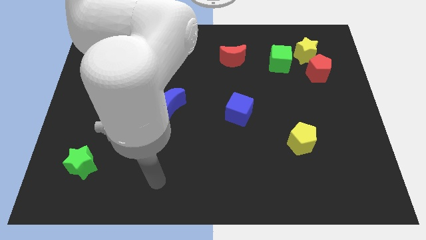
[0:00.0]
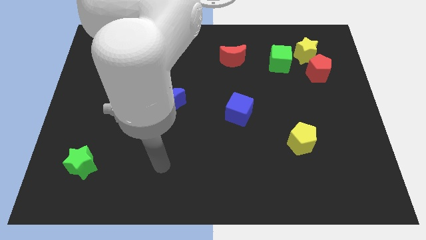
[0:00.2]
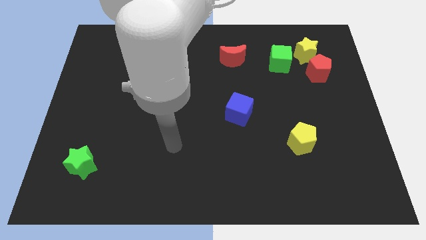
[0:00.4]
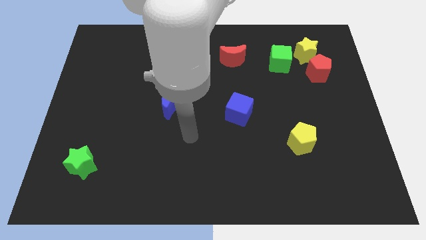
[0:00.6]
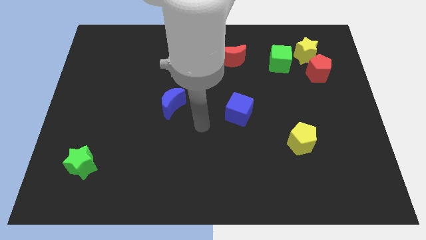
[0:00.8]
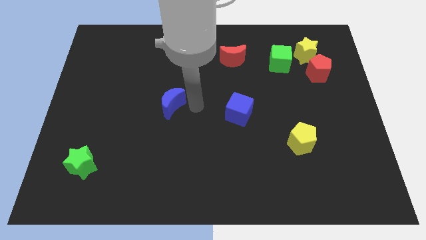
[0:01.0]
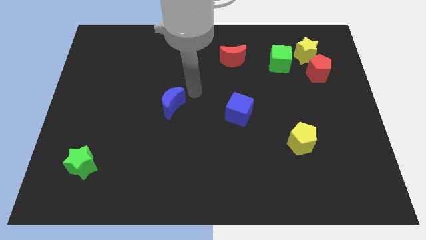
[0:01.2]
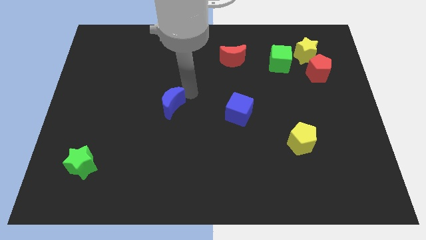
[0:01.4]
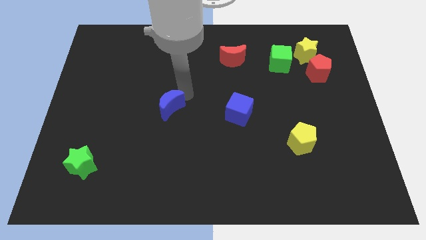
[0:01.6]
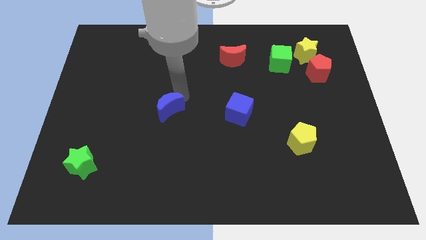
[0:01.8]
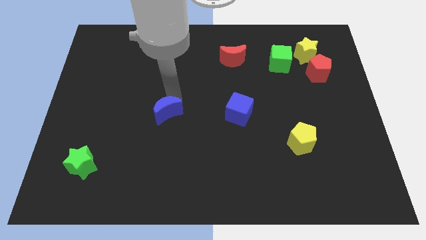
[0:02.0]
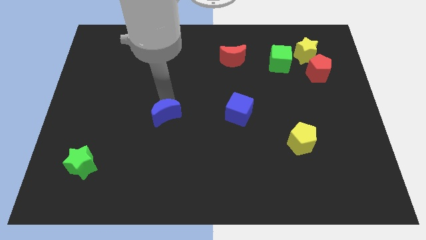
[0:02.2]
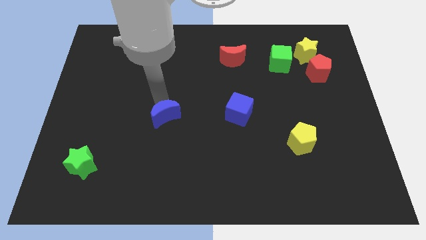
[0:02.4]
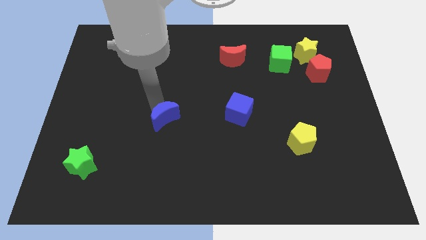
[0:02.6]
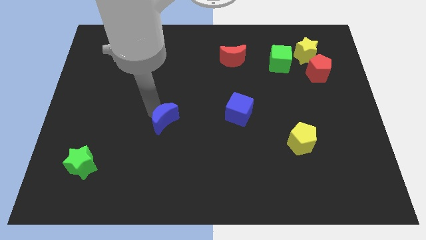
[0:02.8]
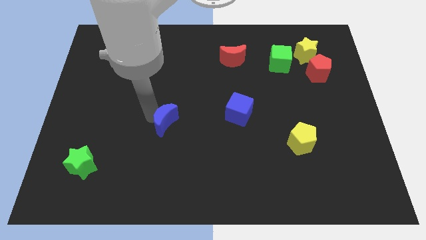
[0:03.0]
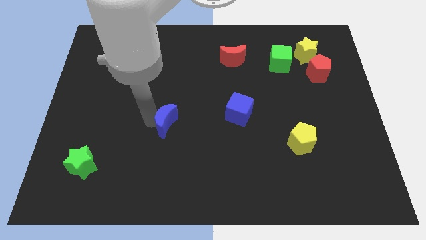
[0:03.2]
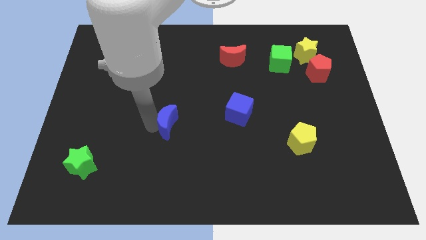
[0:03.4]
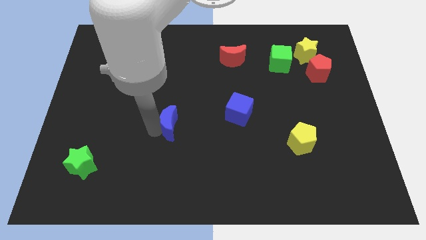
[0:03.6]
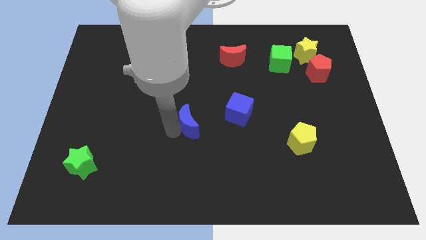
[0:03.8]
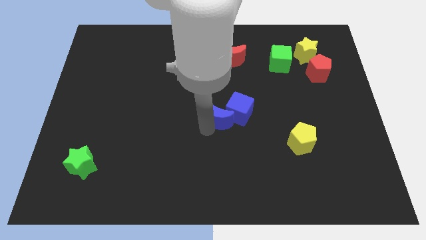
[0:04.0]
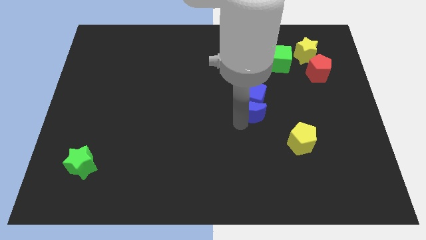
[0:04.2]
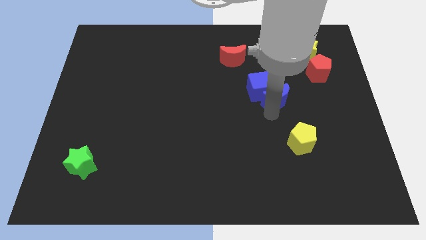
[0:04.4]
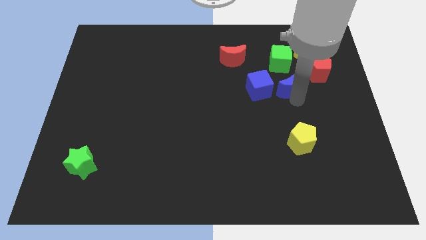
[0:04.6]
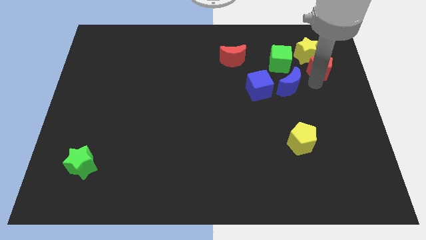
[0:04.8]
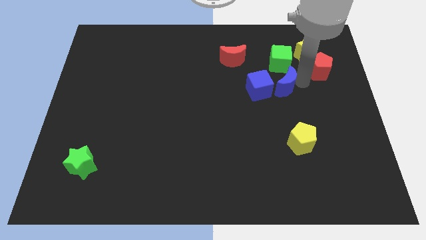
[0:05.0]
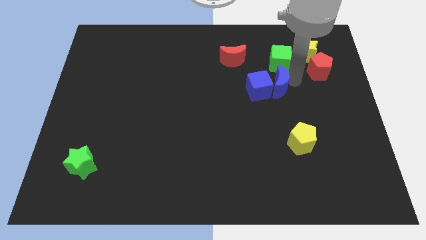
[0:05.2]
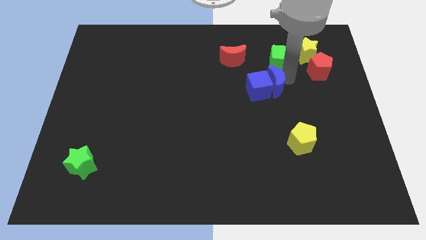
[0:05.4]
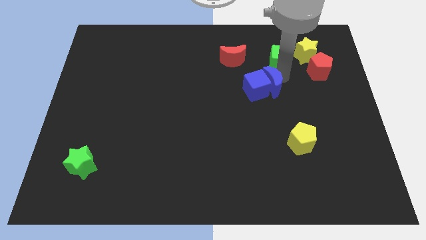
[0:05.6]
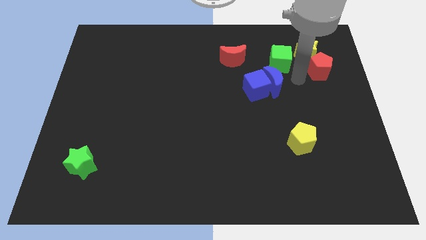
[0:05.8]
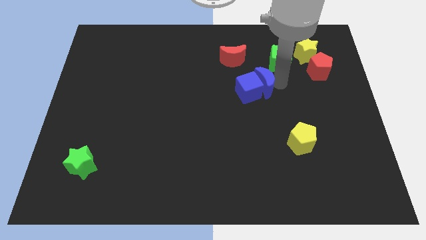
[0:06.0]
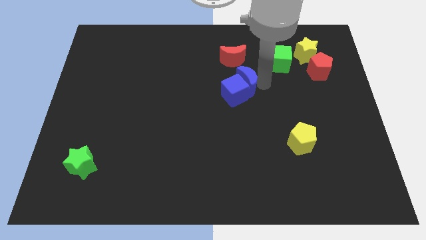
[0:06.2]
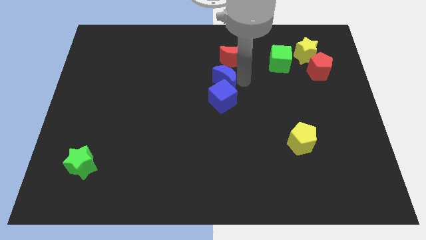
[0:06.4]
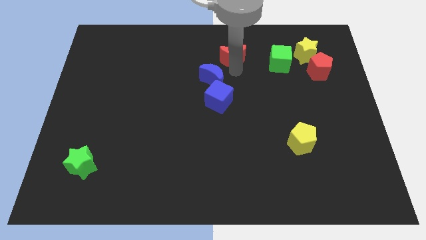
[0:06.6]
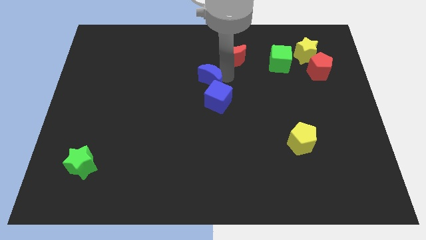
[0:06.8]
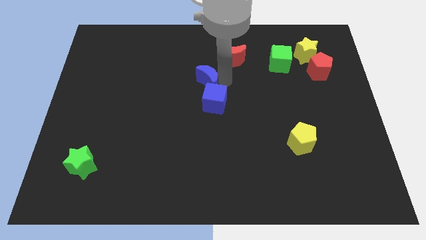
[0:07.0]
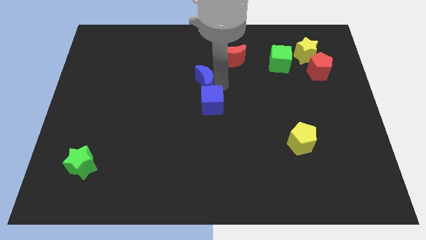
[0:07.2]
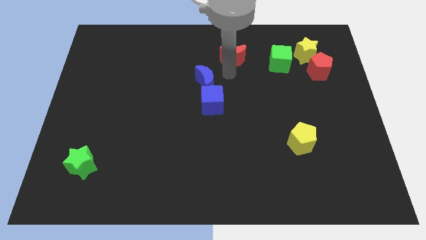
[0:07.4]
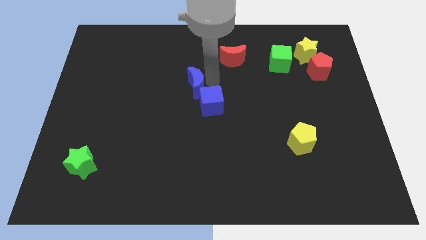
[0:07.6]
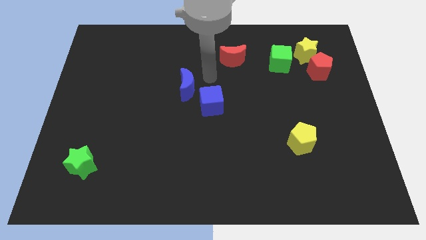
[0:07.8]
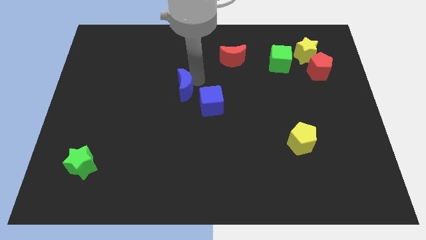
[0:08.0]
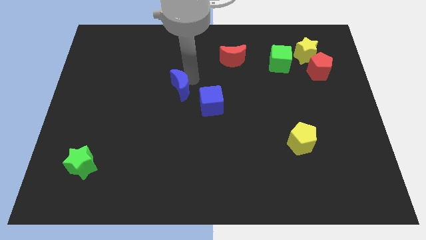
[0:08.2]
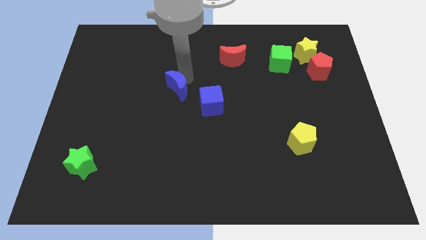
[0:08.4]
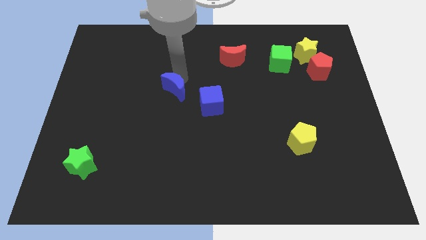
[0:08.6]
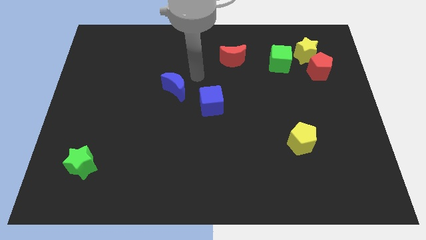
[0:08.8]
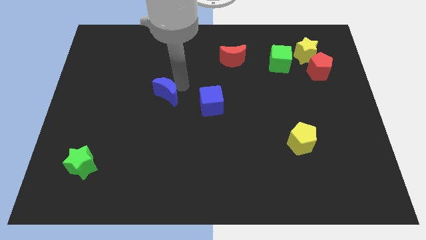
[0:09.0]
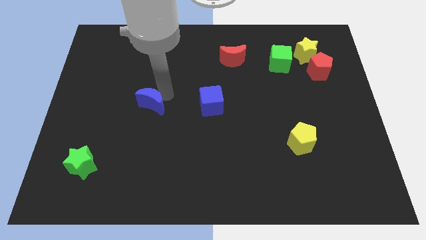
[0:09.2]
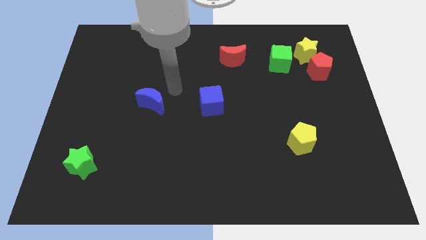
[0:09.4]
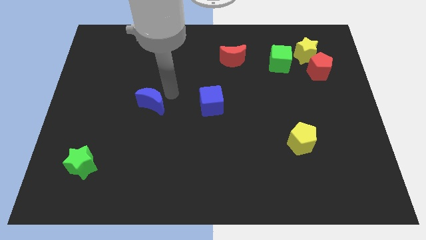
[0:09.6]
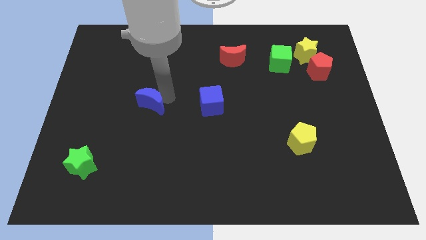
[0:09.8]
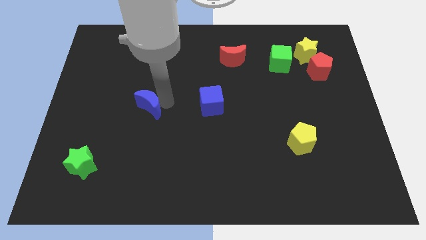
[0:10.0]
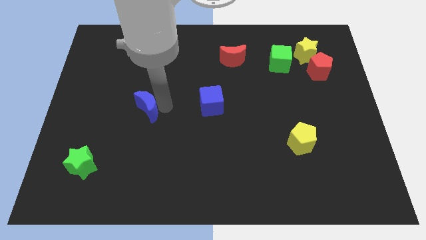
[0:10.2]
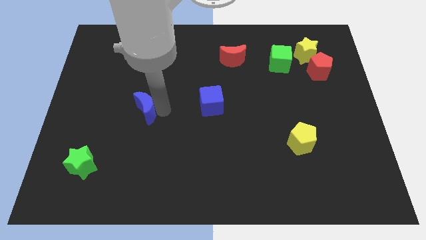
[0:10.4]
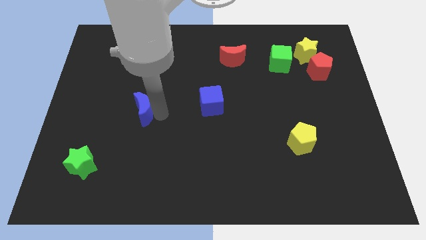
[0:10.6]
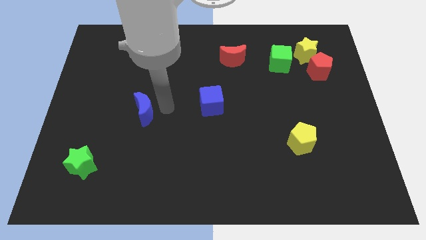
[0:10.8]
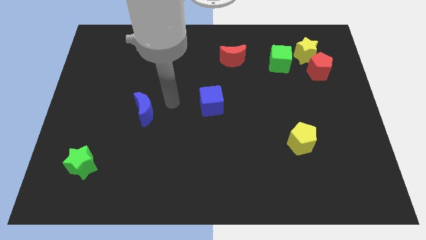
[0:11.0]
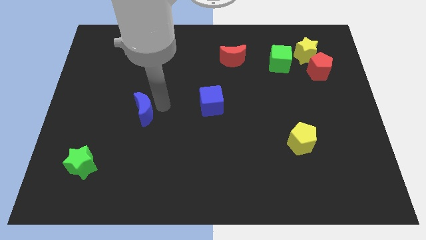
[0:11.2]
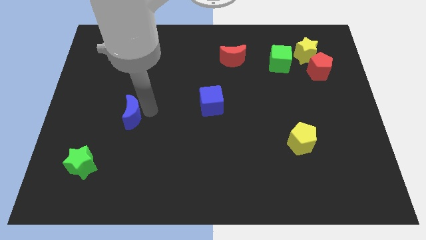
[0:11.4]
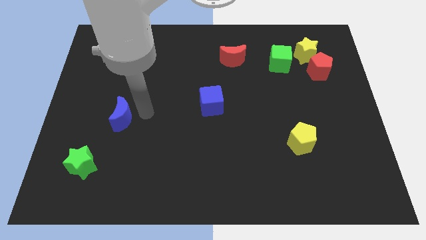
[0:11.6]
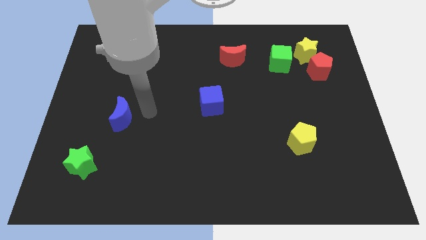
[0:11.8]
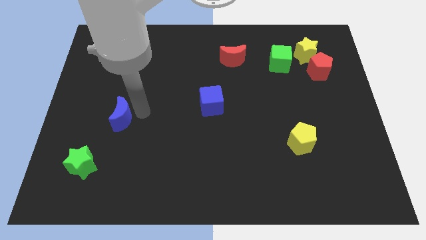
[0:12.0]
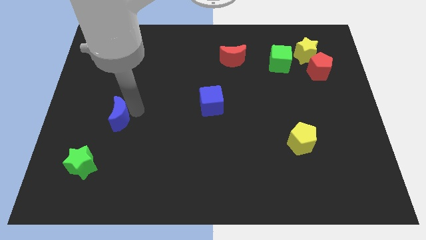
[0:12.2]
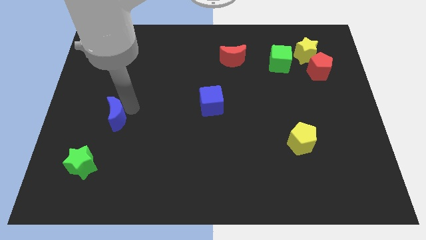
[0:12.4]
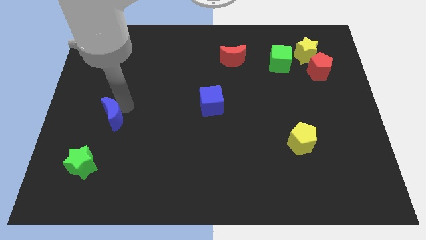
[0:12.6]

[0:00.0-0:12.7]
slide the blue moon to the top side of the green star

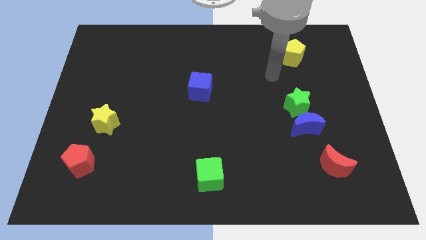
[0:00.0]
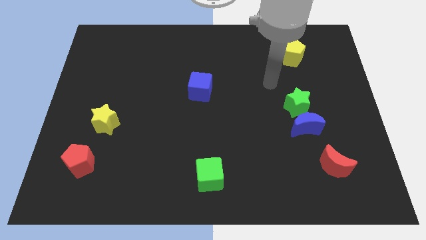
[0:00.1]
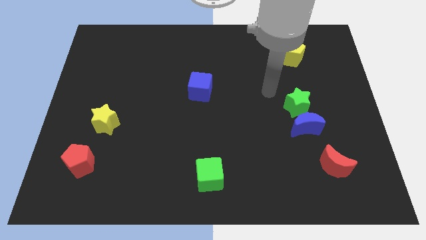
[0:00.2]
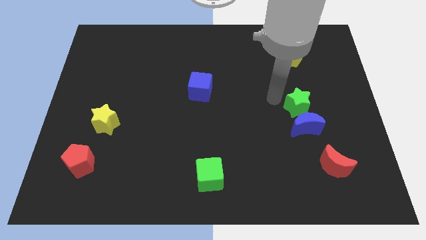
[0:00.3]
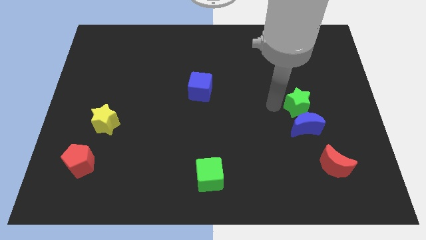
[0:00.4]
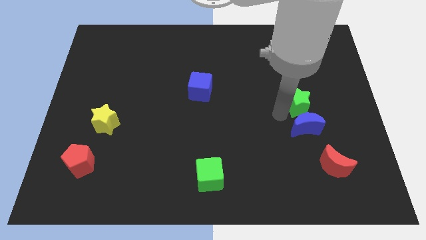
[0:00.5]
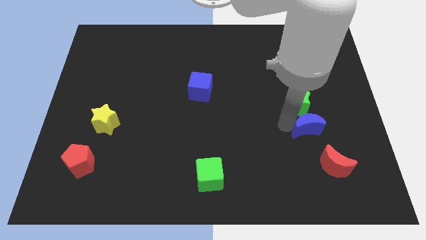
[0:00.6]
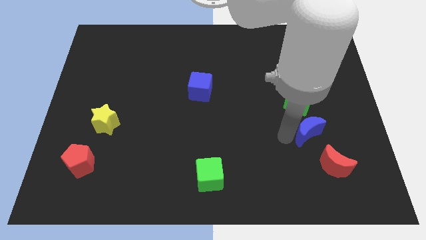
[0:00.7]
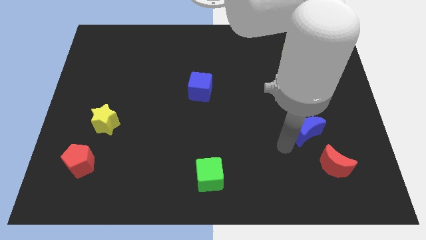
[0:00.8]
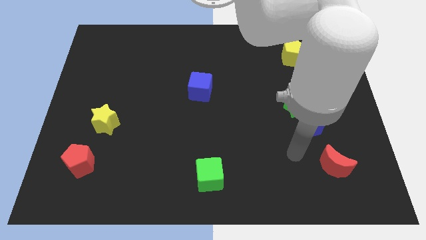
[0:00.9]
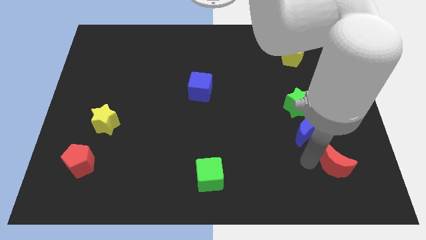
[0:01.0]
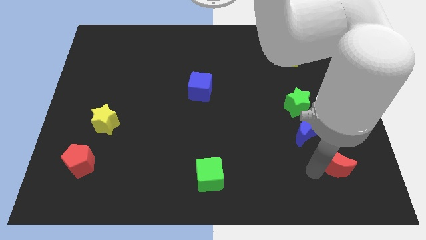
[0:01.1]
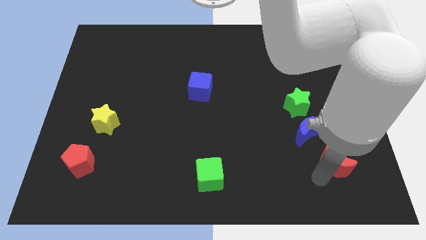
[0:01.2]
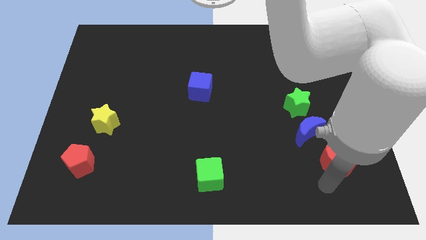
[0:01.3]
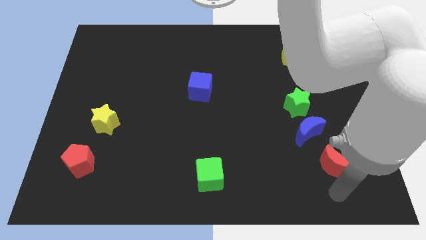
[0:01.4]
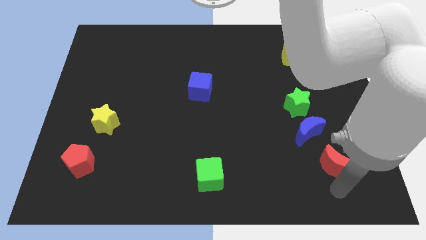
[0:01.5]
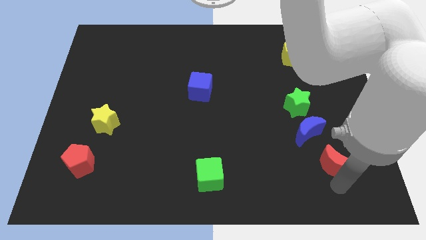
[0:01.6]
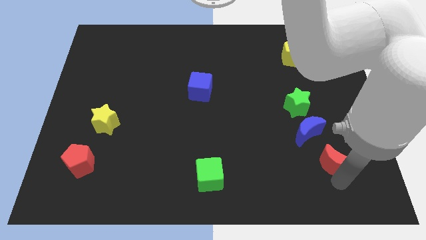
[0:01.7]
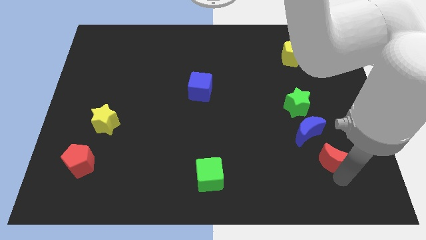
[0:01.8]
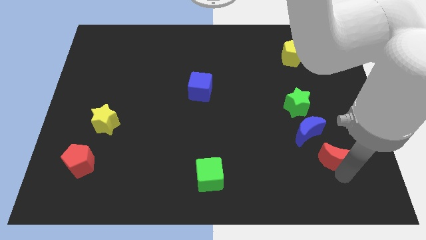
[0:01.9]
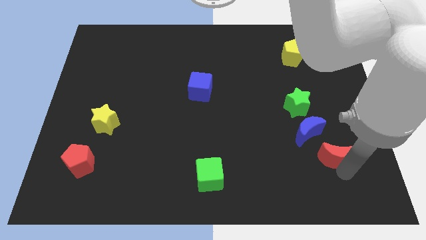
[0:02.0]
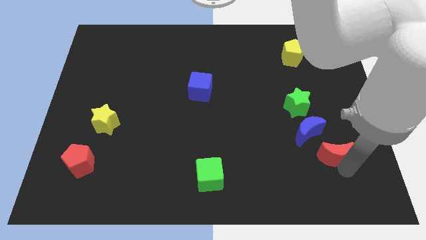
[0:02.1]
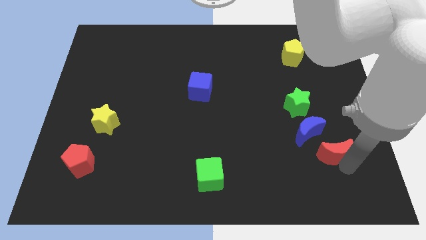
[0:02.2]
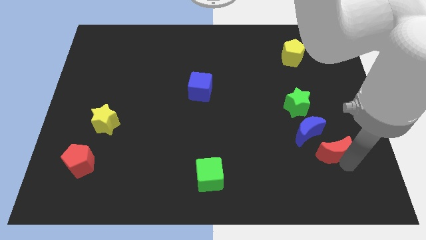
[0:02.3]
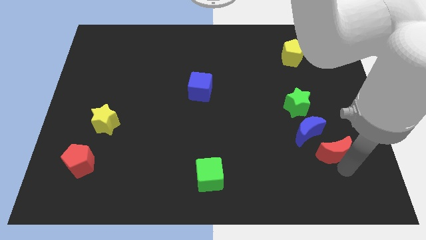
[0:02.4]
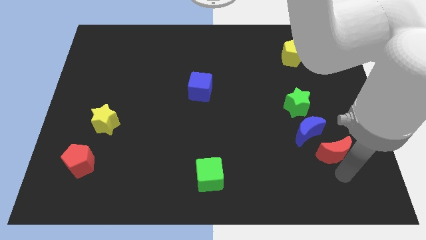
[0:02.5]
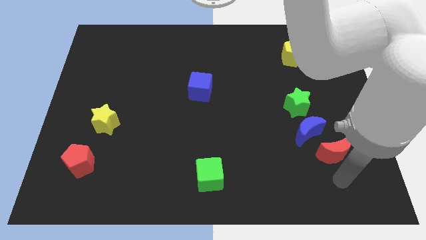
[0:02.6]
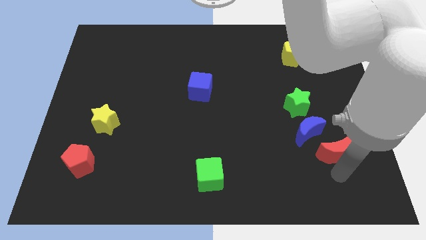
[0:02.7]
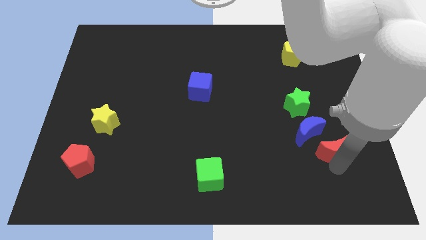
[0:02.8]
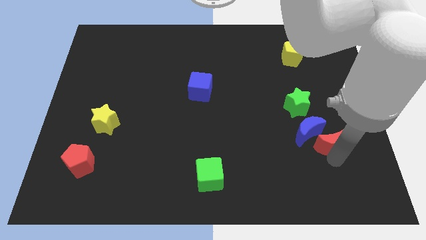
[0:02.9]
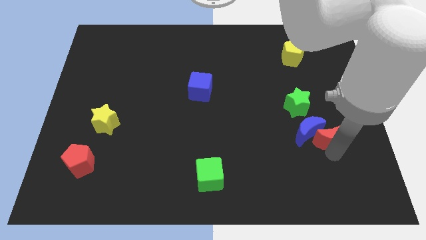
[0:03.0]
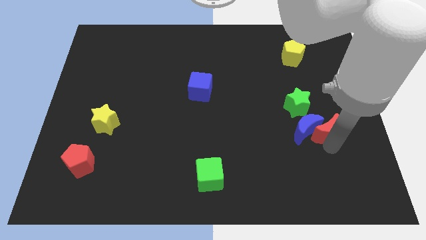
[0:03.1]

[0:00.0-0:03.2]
push the red moon diagonally up and to the right of the blue moon
